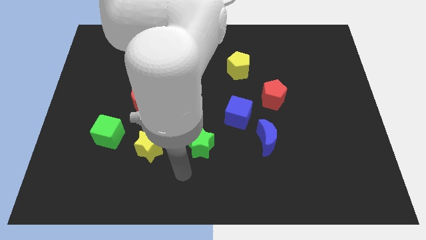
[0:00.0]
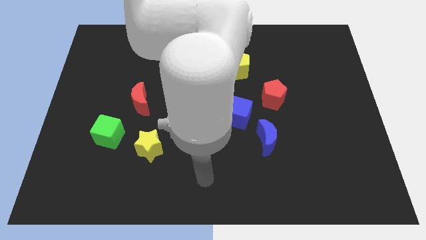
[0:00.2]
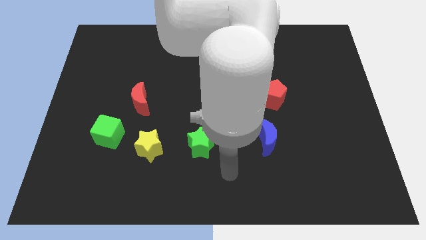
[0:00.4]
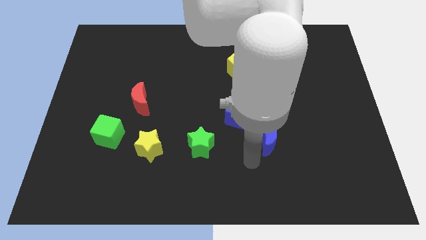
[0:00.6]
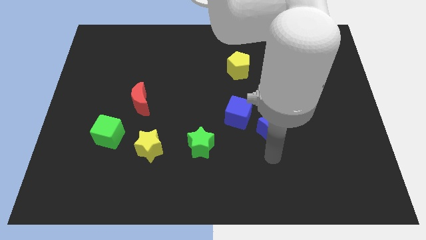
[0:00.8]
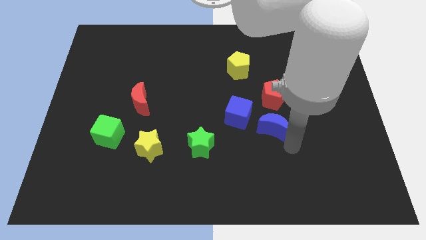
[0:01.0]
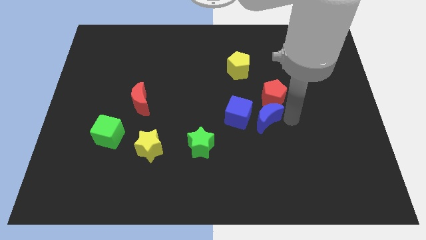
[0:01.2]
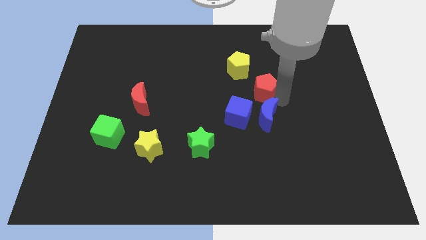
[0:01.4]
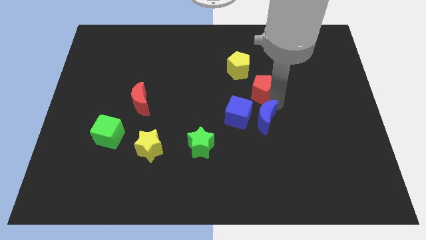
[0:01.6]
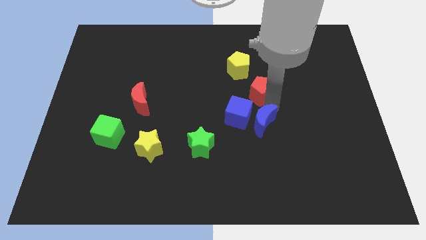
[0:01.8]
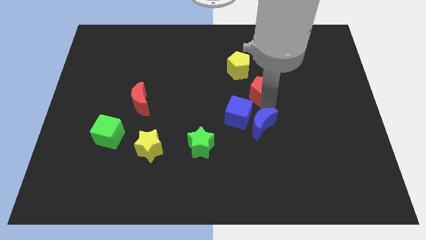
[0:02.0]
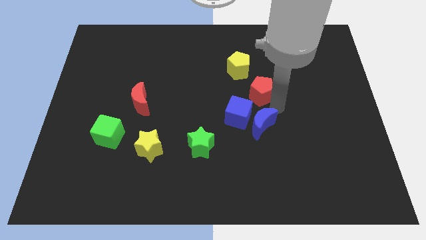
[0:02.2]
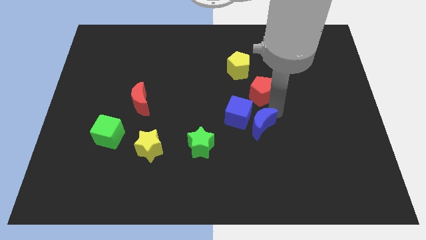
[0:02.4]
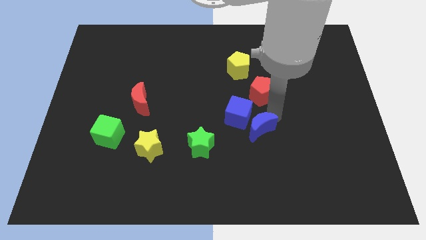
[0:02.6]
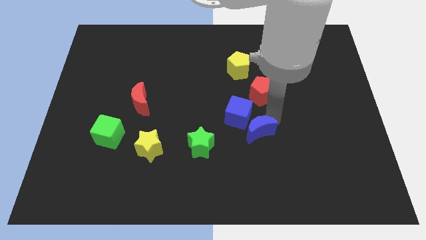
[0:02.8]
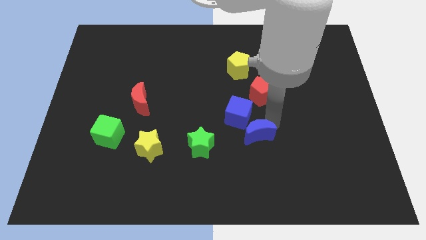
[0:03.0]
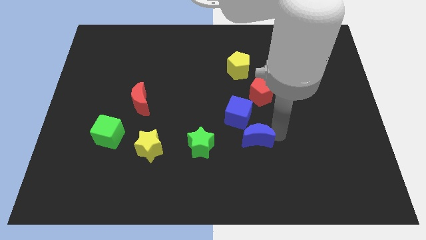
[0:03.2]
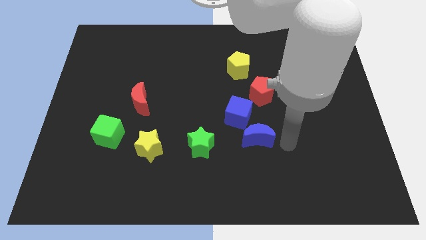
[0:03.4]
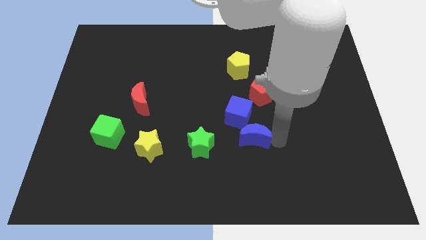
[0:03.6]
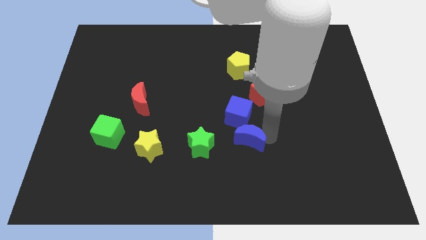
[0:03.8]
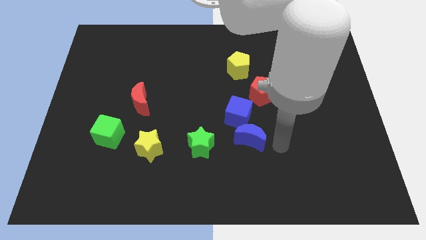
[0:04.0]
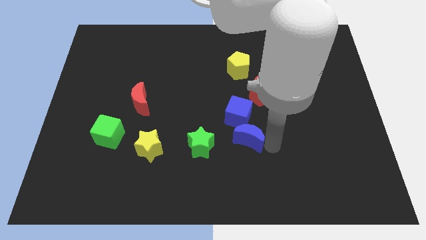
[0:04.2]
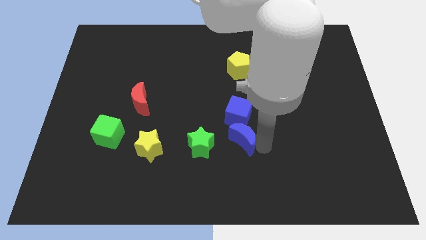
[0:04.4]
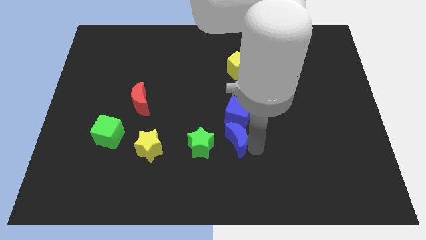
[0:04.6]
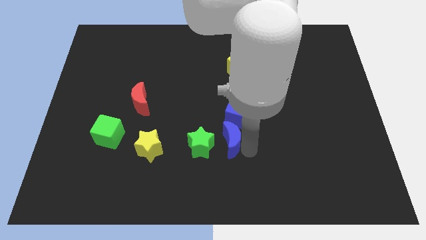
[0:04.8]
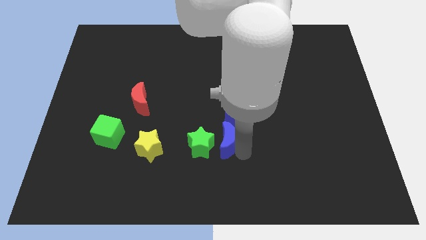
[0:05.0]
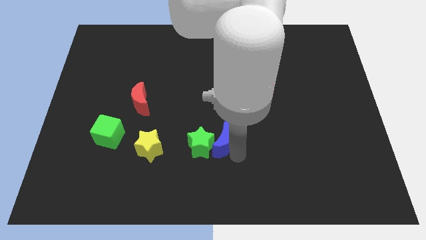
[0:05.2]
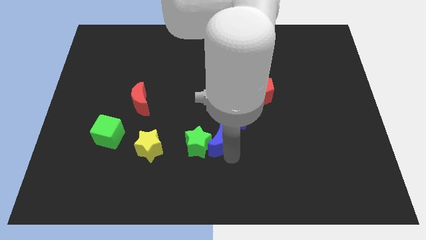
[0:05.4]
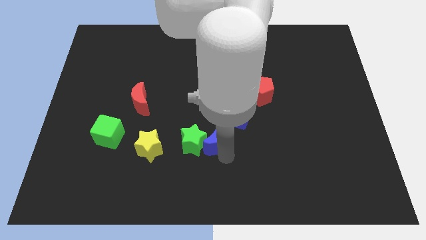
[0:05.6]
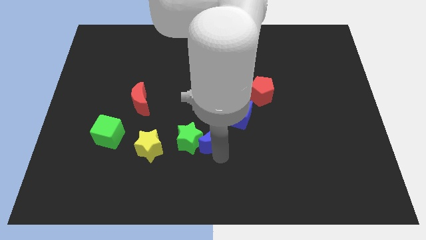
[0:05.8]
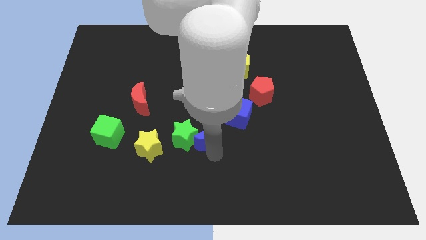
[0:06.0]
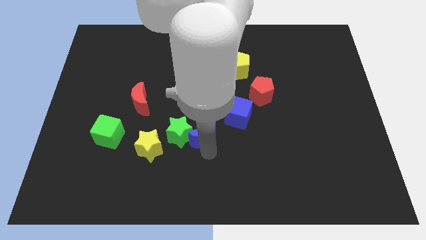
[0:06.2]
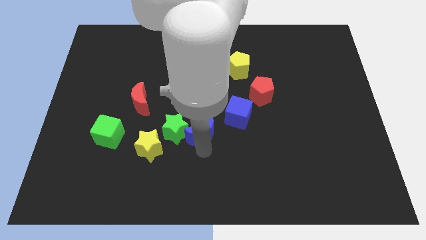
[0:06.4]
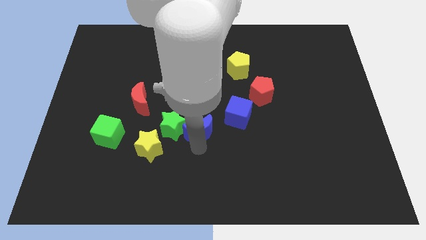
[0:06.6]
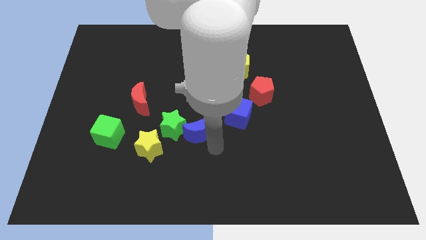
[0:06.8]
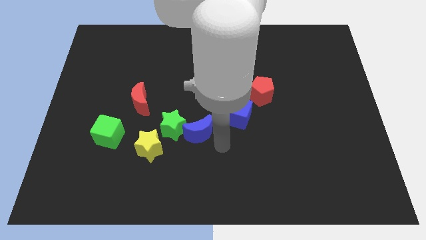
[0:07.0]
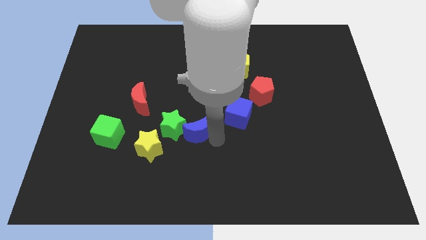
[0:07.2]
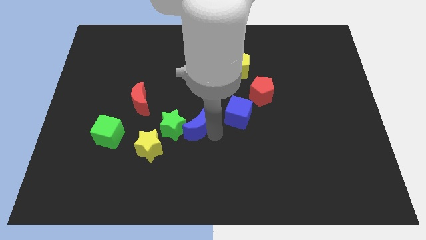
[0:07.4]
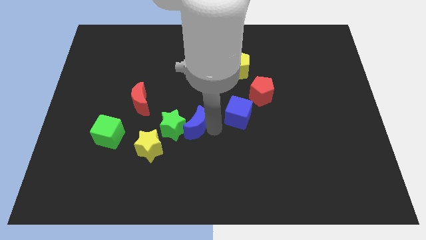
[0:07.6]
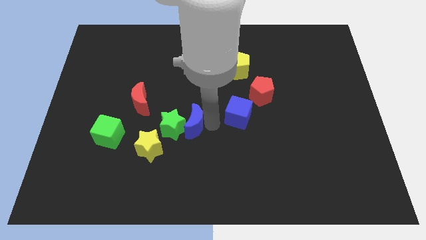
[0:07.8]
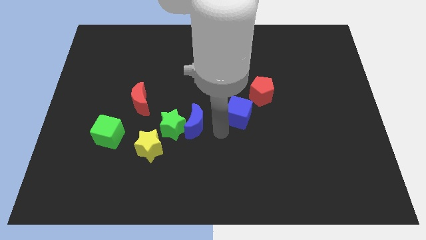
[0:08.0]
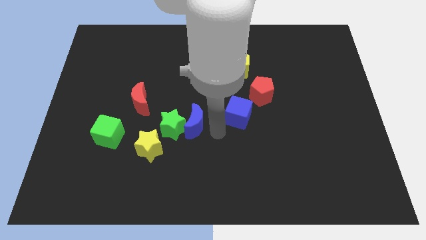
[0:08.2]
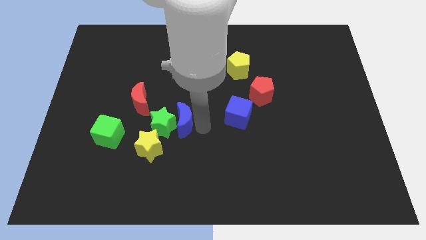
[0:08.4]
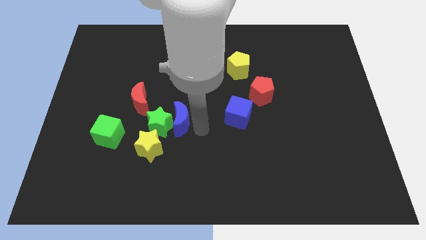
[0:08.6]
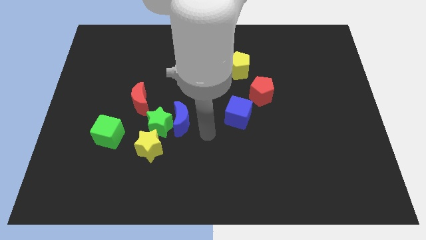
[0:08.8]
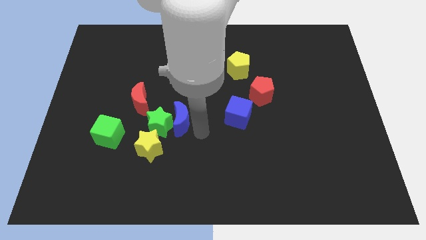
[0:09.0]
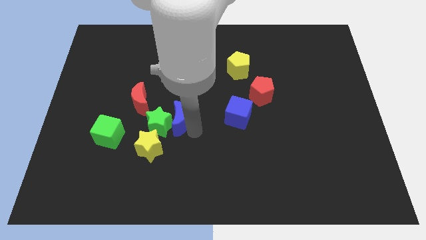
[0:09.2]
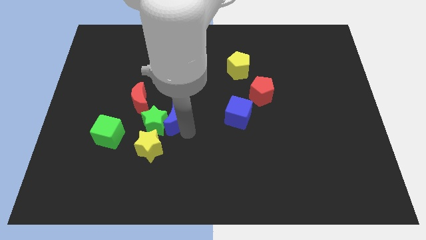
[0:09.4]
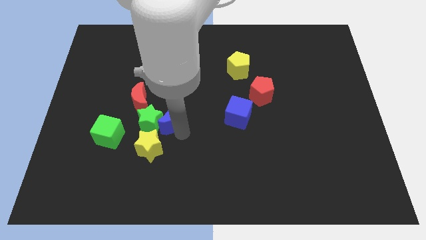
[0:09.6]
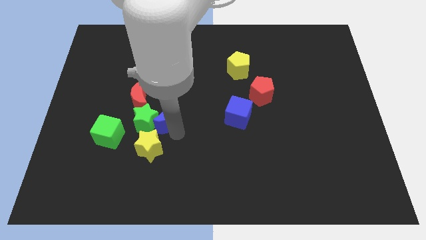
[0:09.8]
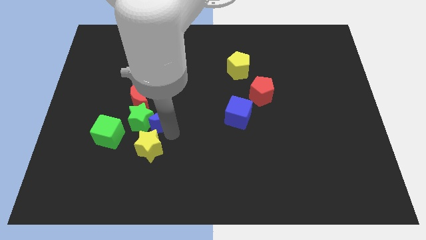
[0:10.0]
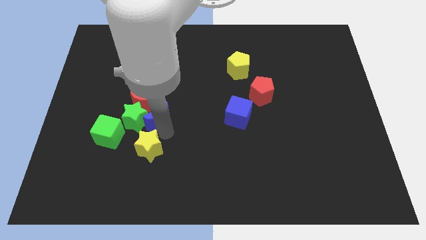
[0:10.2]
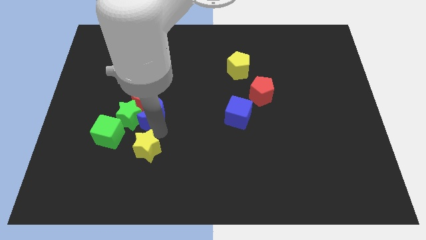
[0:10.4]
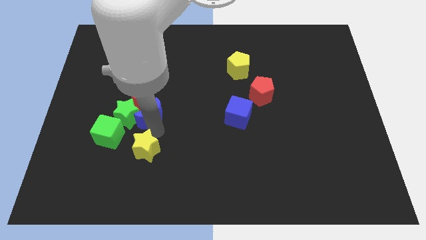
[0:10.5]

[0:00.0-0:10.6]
slide the blue moon close to the red moon

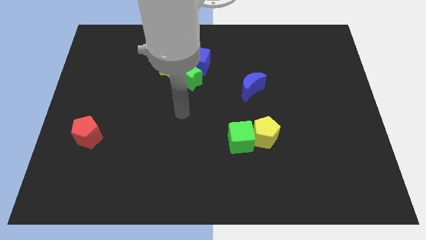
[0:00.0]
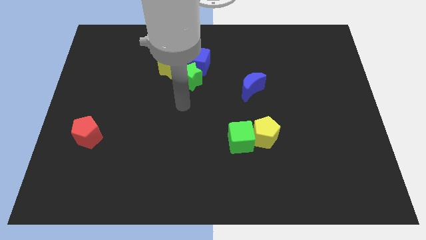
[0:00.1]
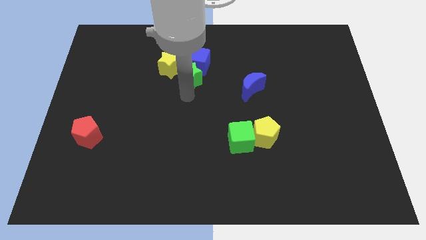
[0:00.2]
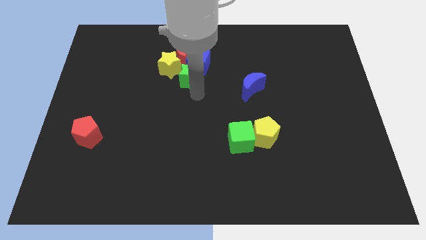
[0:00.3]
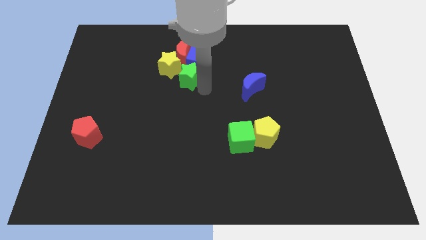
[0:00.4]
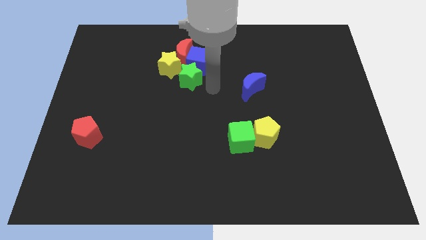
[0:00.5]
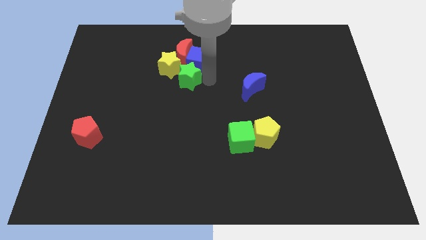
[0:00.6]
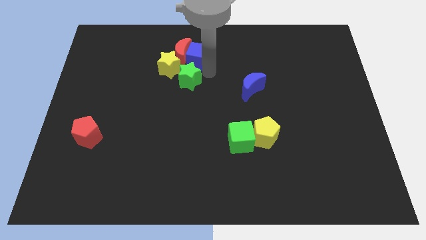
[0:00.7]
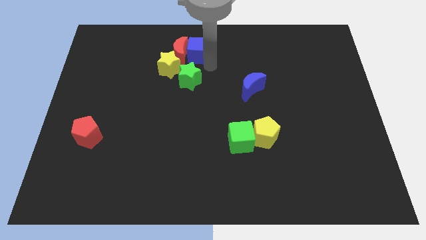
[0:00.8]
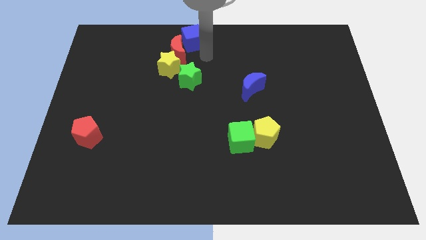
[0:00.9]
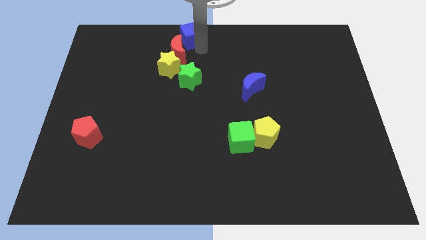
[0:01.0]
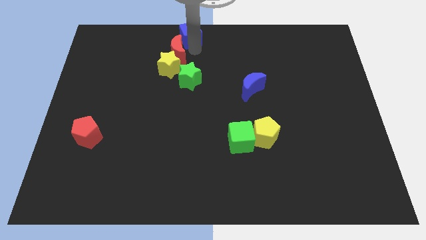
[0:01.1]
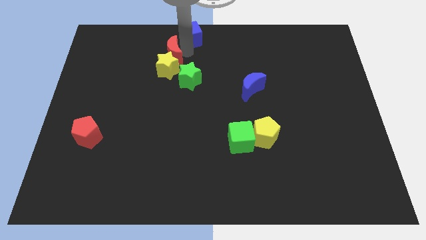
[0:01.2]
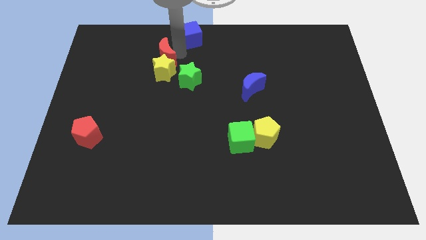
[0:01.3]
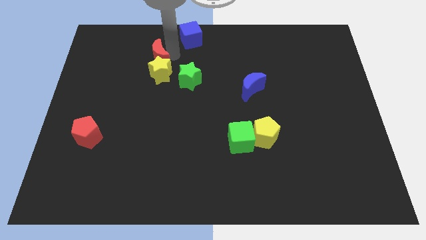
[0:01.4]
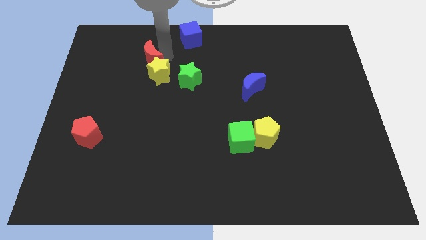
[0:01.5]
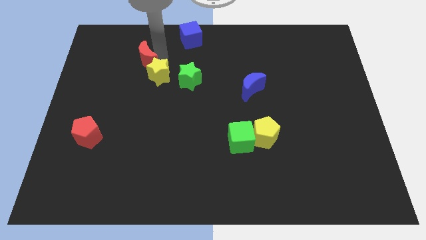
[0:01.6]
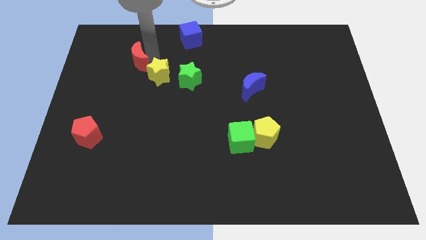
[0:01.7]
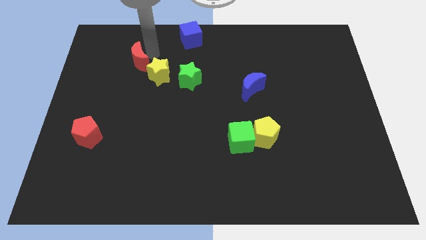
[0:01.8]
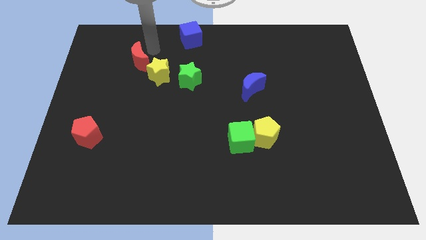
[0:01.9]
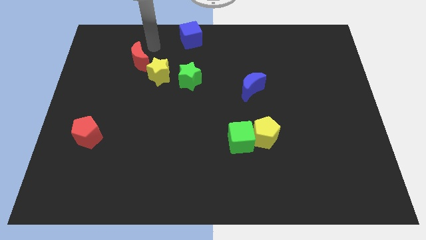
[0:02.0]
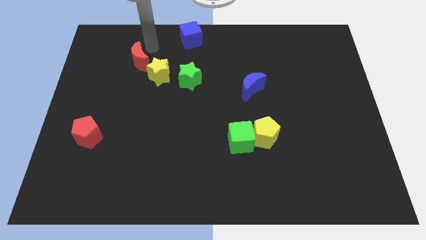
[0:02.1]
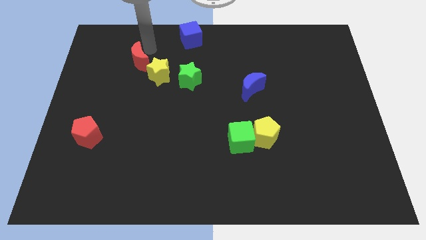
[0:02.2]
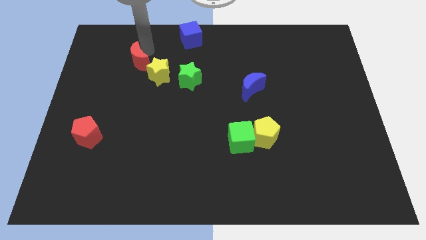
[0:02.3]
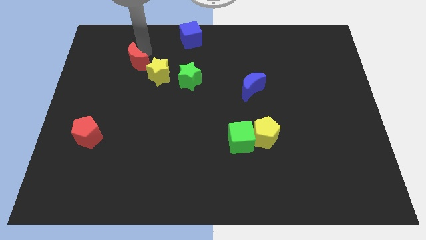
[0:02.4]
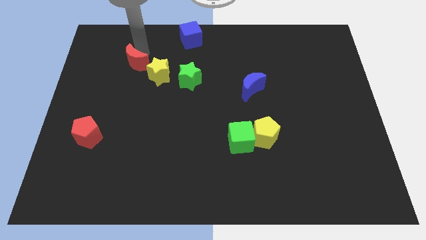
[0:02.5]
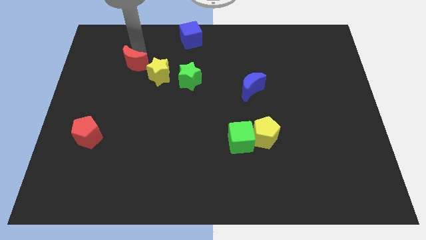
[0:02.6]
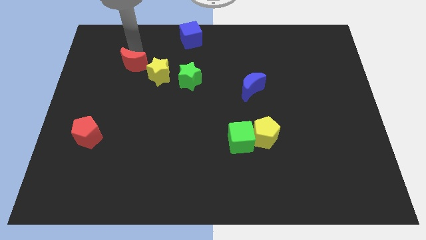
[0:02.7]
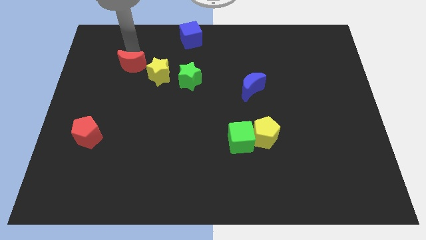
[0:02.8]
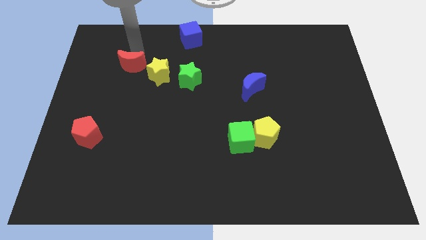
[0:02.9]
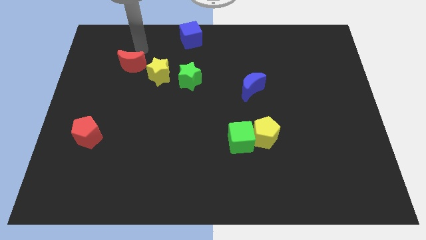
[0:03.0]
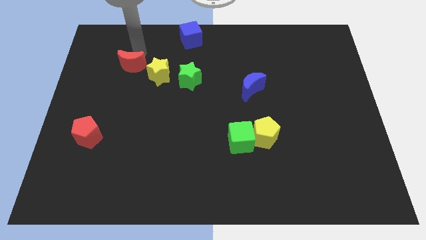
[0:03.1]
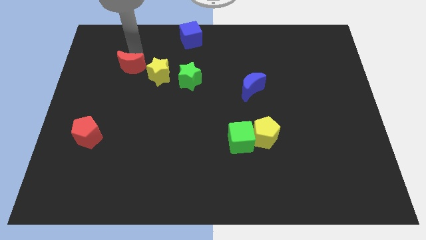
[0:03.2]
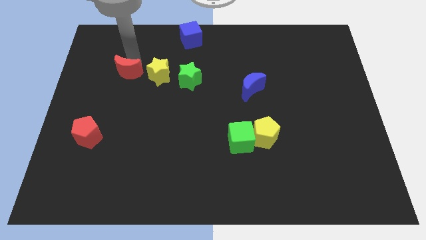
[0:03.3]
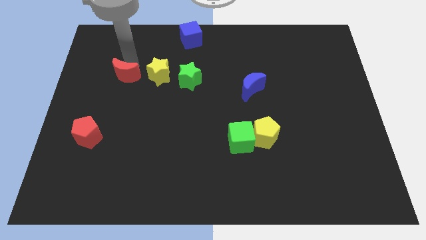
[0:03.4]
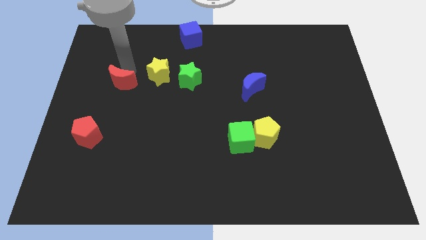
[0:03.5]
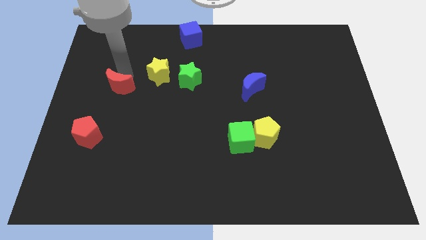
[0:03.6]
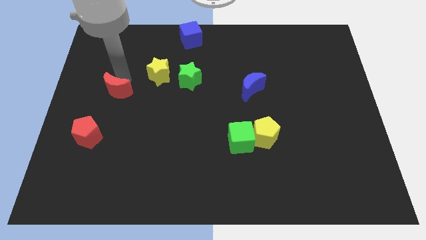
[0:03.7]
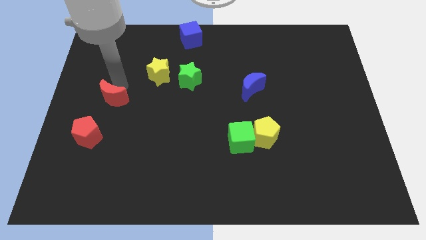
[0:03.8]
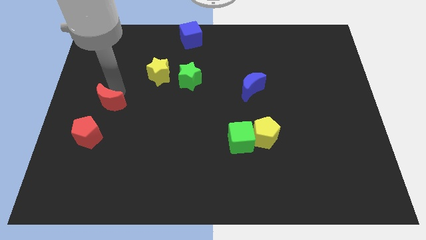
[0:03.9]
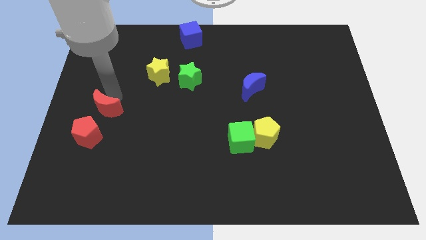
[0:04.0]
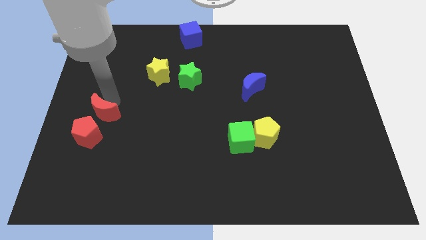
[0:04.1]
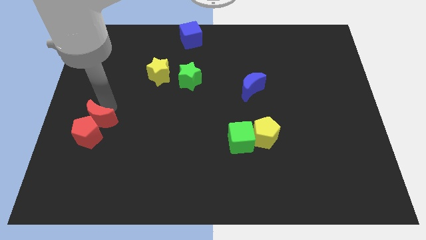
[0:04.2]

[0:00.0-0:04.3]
put the red moon to the red pentagon
